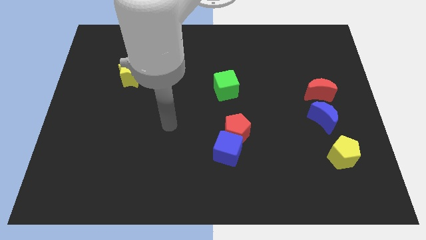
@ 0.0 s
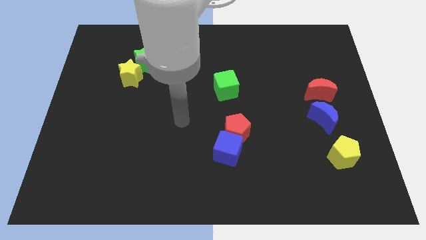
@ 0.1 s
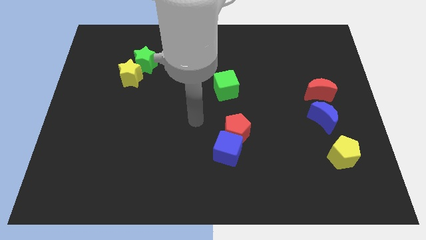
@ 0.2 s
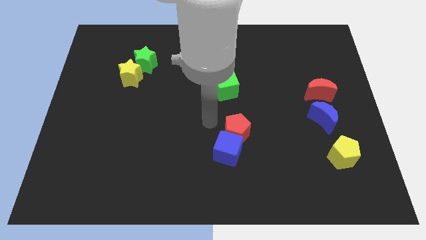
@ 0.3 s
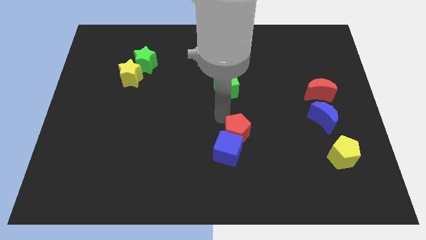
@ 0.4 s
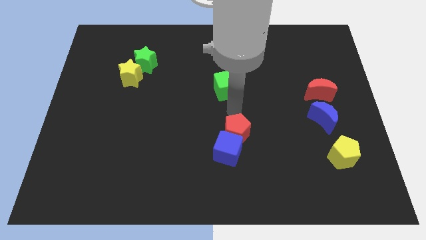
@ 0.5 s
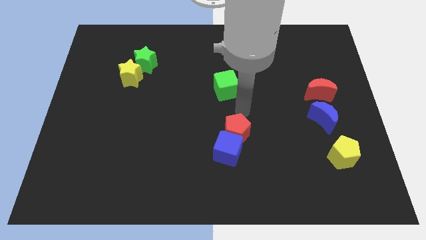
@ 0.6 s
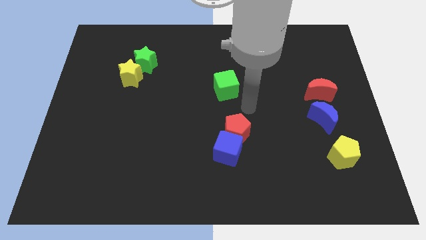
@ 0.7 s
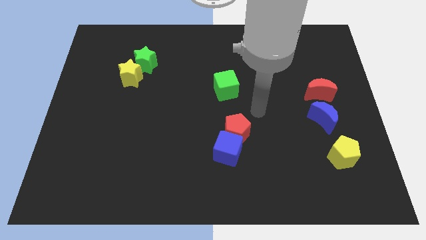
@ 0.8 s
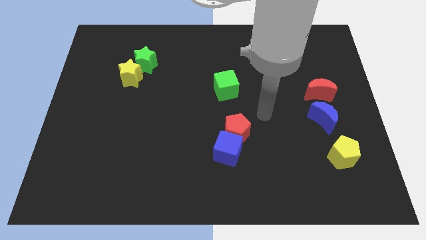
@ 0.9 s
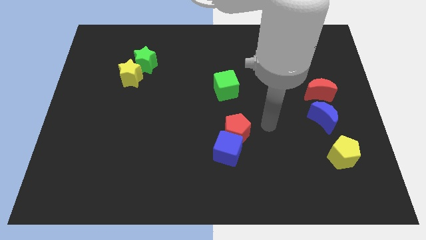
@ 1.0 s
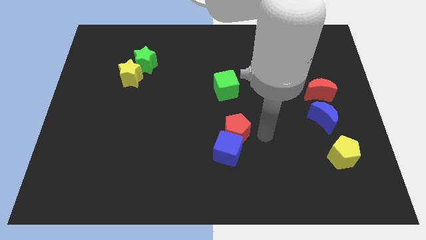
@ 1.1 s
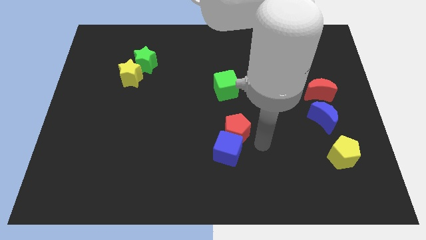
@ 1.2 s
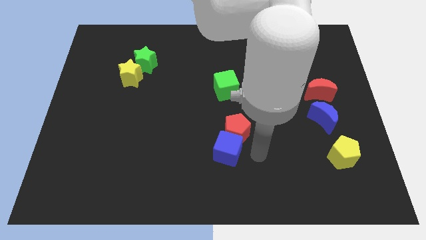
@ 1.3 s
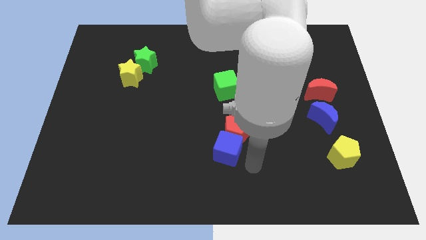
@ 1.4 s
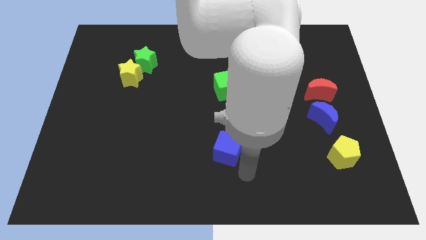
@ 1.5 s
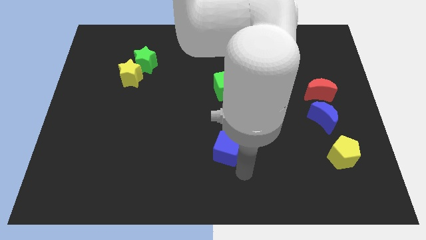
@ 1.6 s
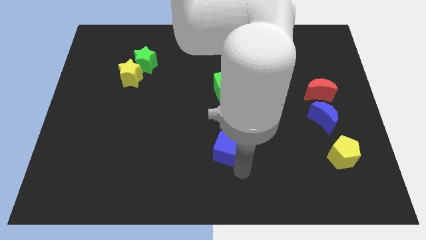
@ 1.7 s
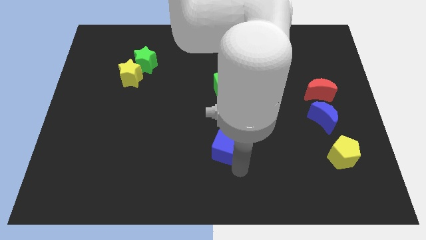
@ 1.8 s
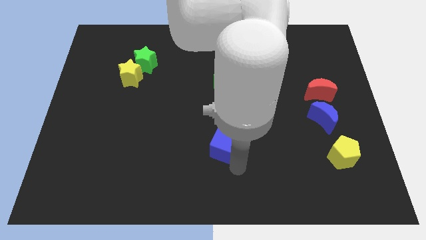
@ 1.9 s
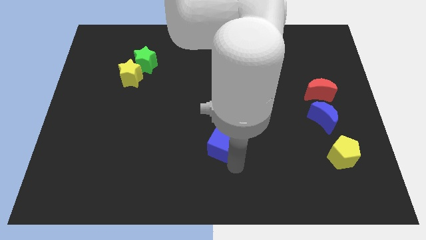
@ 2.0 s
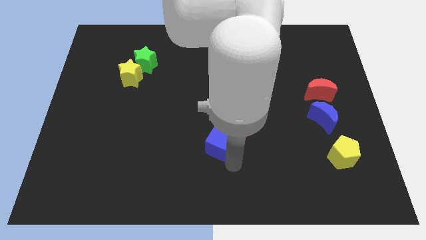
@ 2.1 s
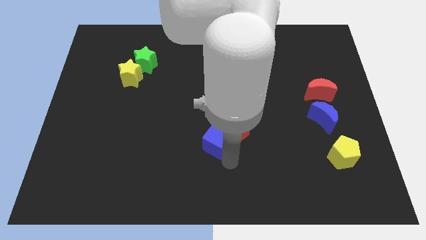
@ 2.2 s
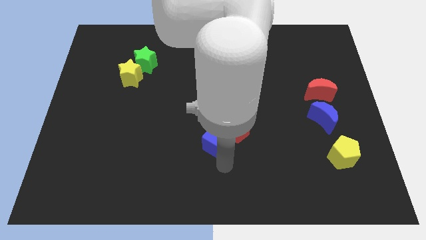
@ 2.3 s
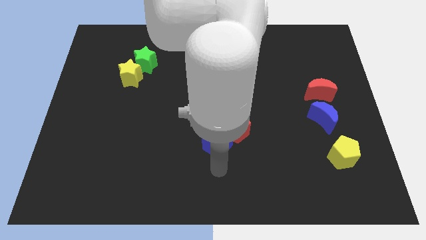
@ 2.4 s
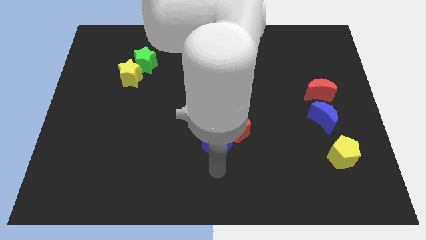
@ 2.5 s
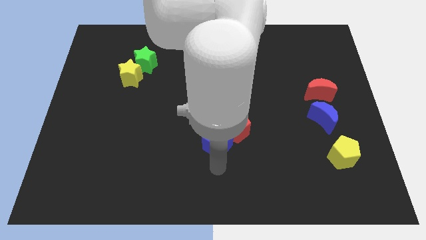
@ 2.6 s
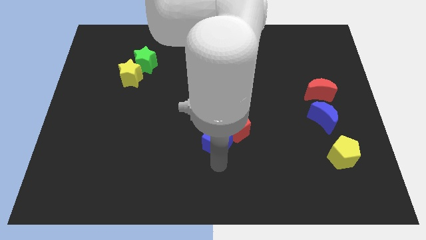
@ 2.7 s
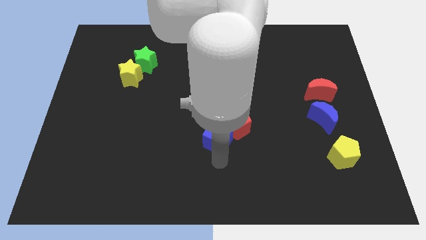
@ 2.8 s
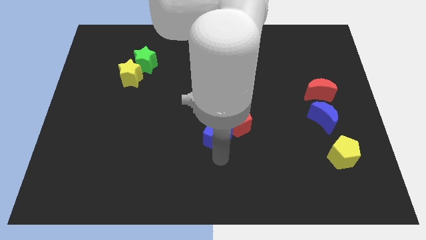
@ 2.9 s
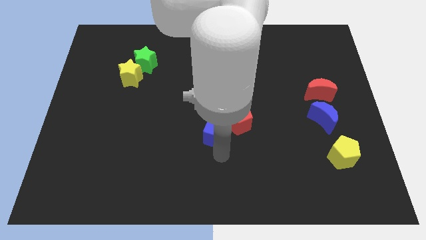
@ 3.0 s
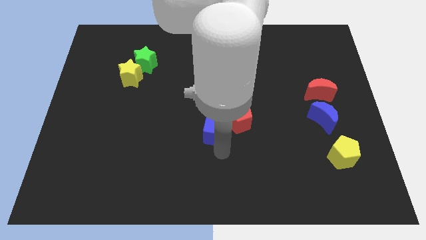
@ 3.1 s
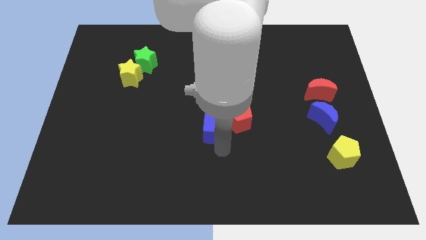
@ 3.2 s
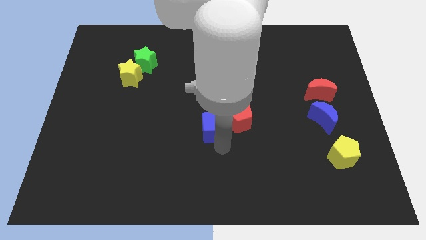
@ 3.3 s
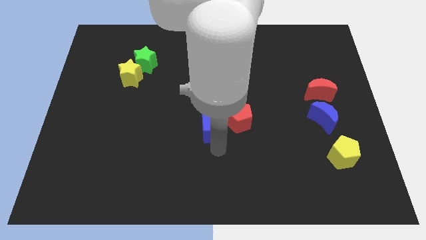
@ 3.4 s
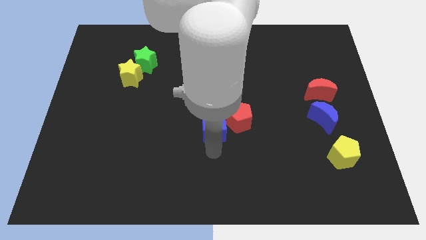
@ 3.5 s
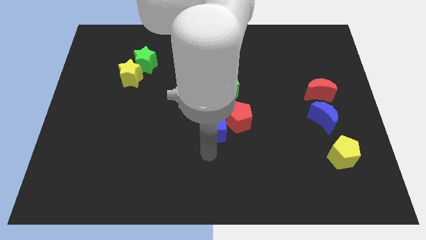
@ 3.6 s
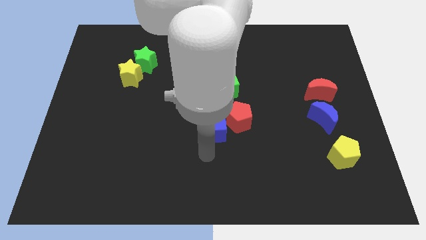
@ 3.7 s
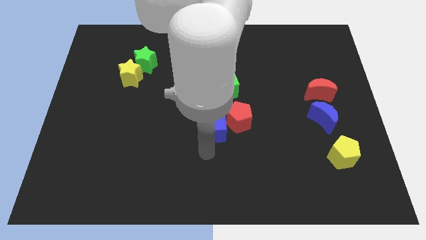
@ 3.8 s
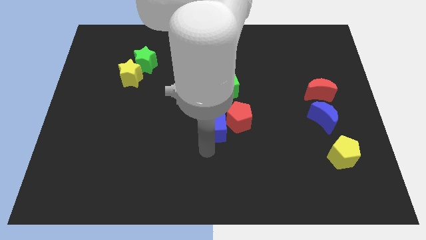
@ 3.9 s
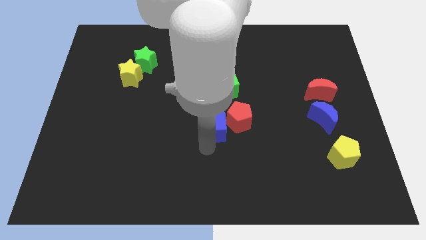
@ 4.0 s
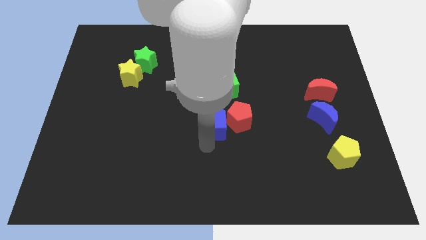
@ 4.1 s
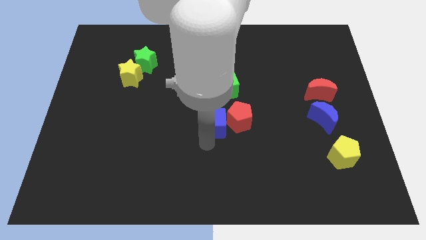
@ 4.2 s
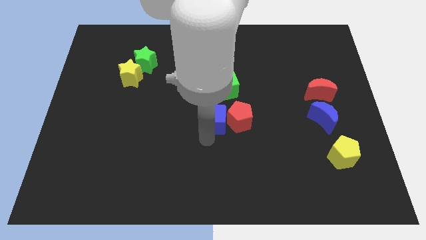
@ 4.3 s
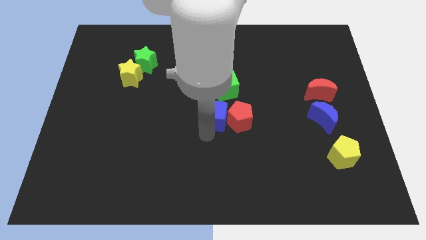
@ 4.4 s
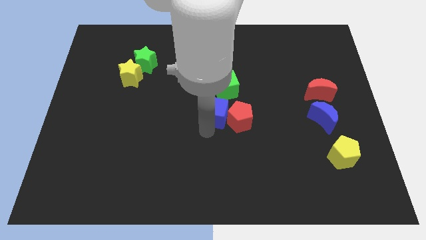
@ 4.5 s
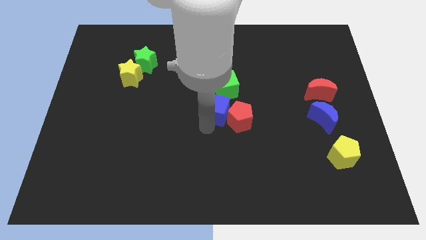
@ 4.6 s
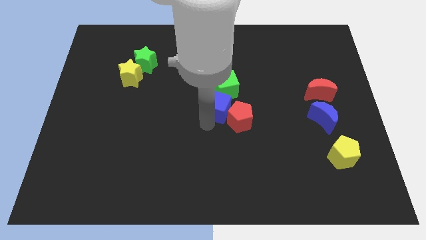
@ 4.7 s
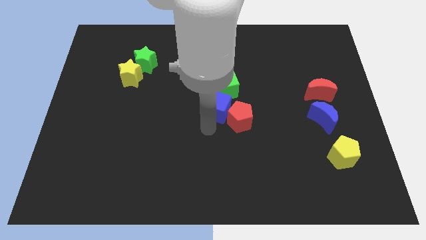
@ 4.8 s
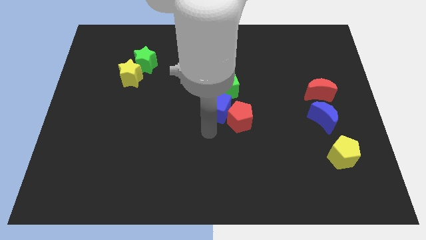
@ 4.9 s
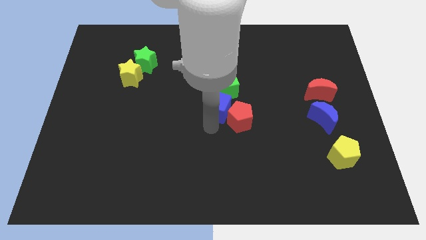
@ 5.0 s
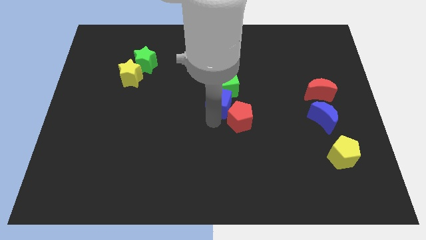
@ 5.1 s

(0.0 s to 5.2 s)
move the blue cube towards the green cube

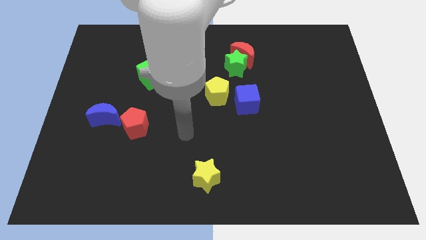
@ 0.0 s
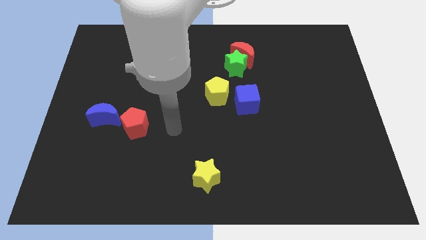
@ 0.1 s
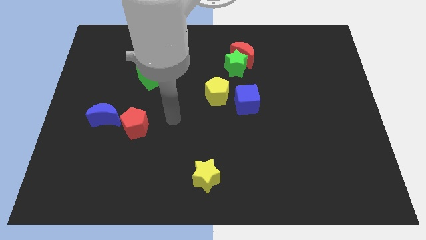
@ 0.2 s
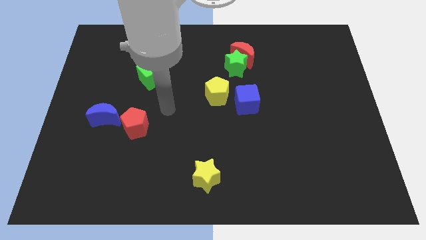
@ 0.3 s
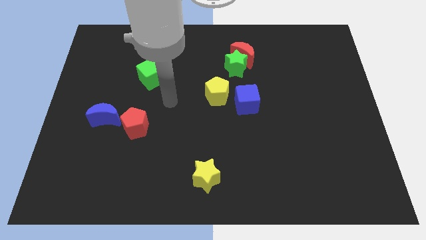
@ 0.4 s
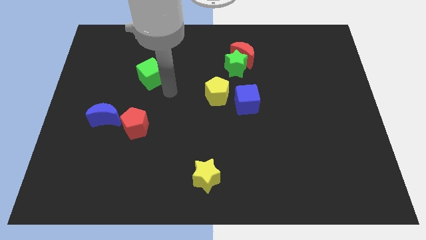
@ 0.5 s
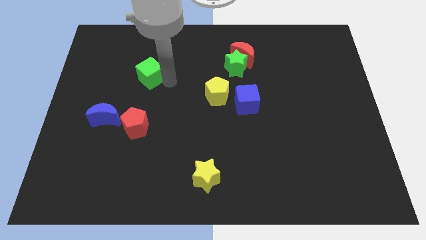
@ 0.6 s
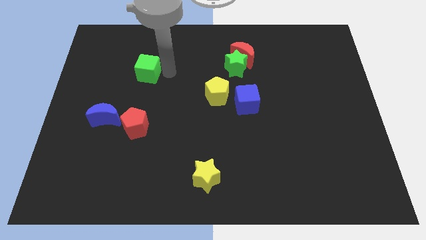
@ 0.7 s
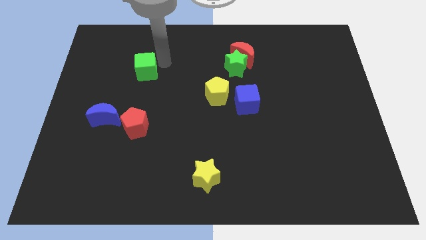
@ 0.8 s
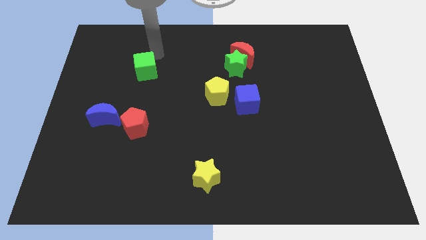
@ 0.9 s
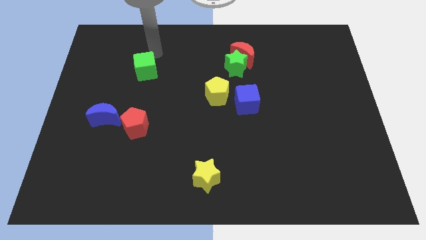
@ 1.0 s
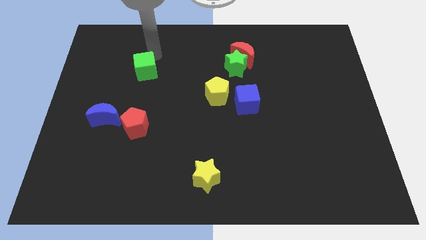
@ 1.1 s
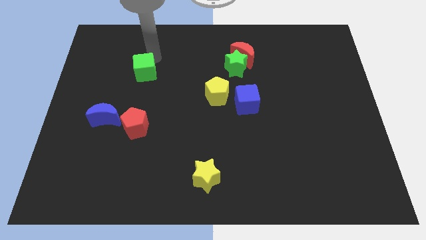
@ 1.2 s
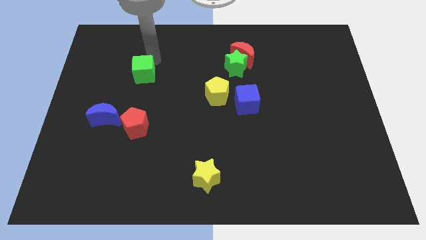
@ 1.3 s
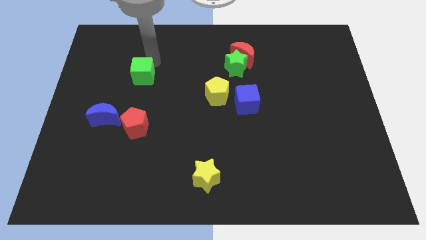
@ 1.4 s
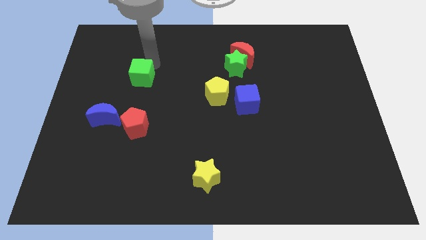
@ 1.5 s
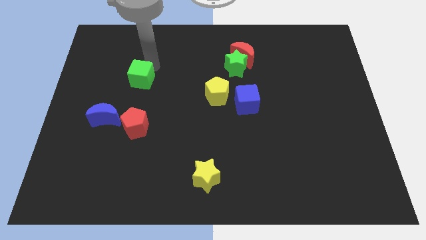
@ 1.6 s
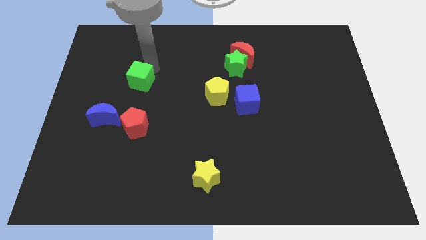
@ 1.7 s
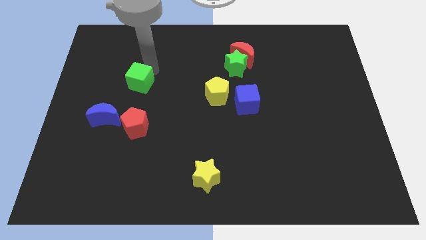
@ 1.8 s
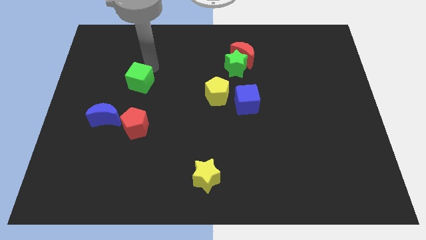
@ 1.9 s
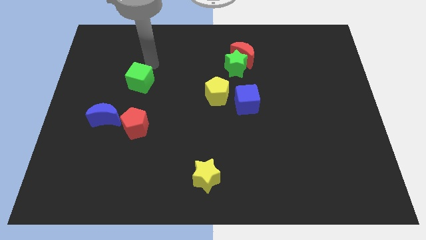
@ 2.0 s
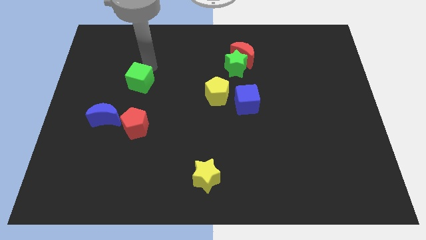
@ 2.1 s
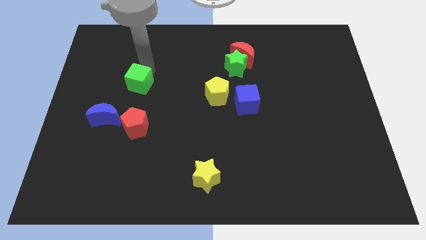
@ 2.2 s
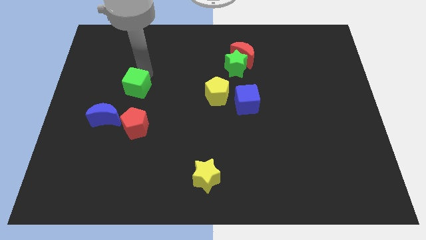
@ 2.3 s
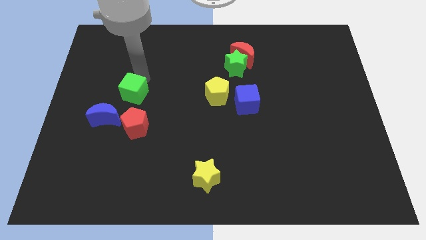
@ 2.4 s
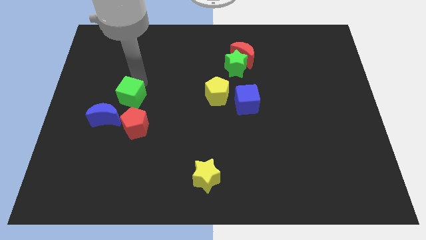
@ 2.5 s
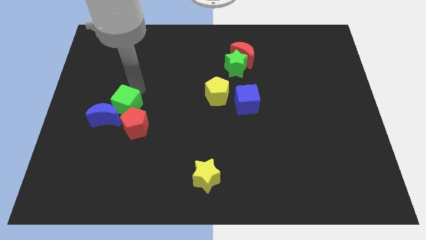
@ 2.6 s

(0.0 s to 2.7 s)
put the green cube towards the blue moon
